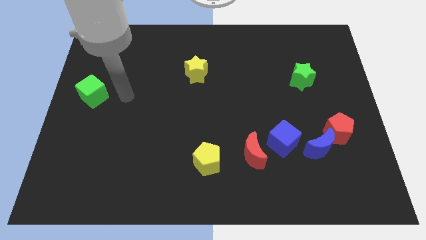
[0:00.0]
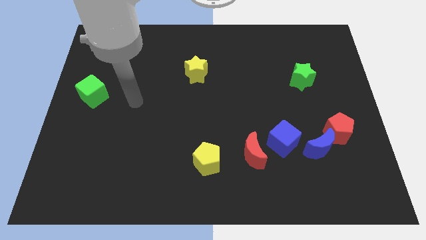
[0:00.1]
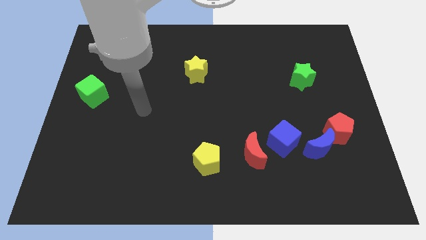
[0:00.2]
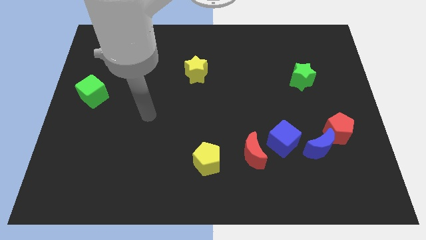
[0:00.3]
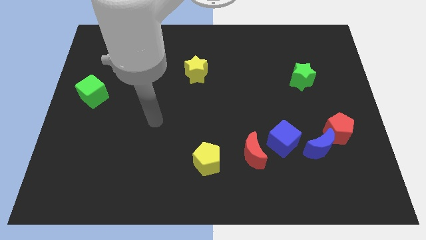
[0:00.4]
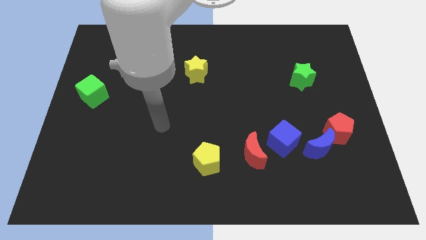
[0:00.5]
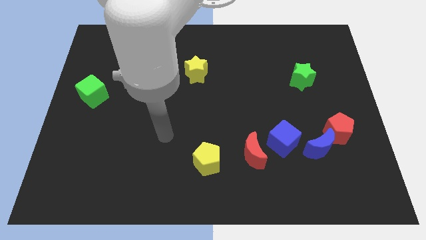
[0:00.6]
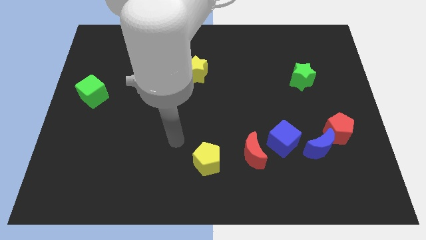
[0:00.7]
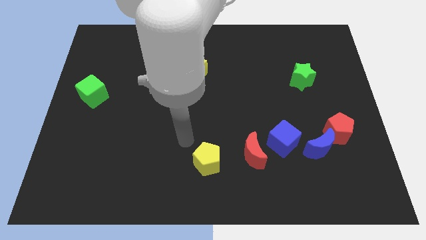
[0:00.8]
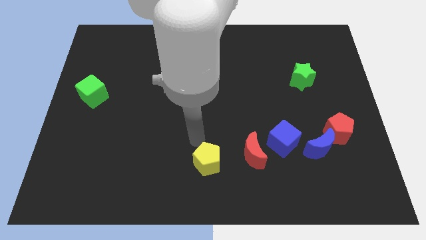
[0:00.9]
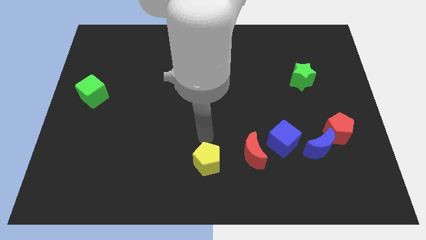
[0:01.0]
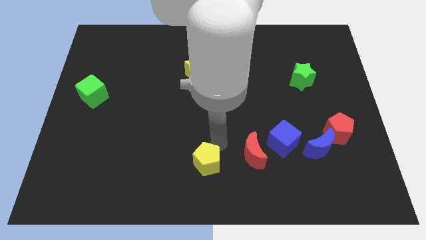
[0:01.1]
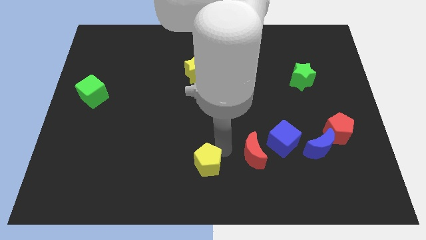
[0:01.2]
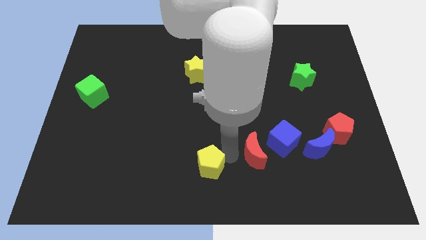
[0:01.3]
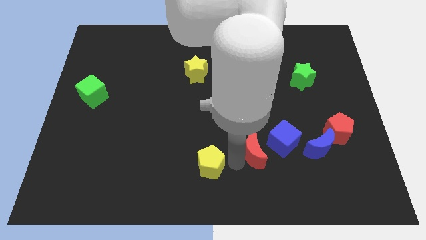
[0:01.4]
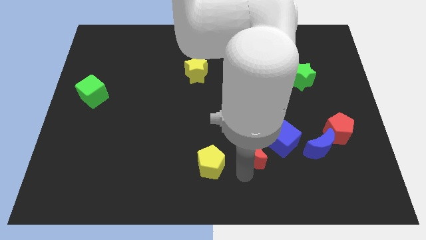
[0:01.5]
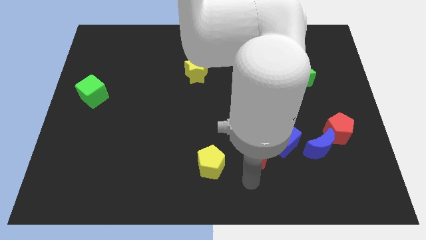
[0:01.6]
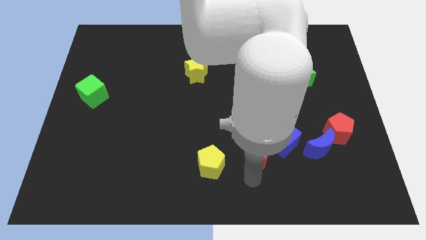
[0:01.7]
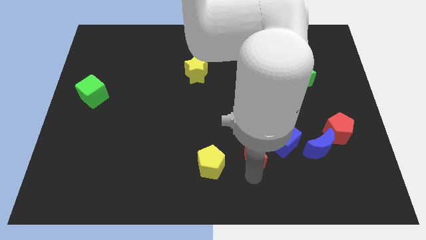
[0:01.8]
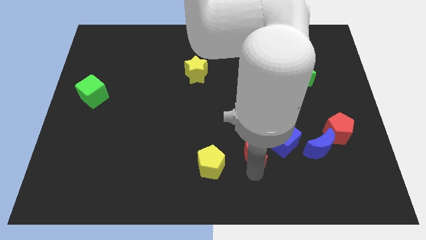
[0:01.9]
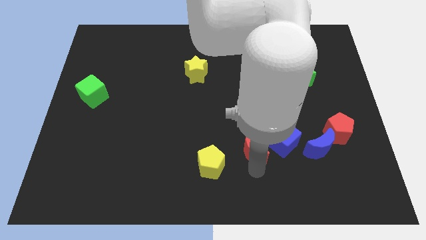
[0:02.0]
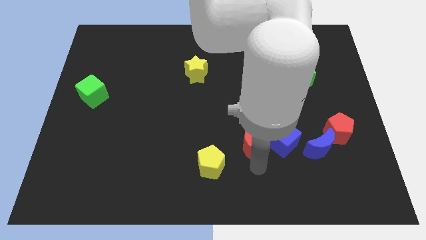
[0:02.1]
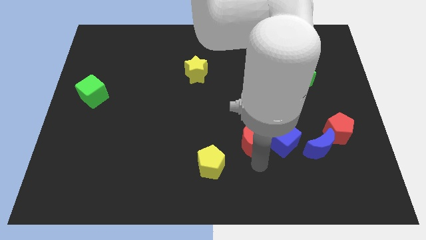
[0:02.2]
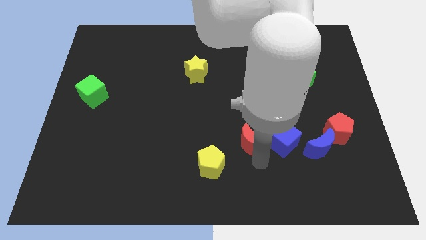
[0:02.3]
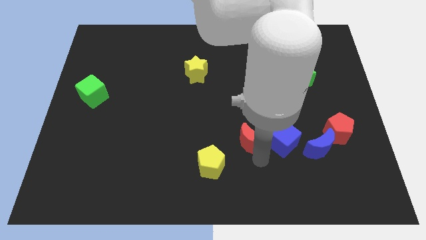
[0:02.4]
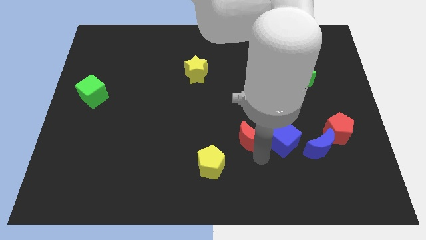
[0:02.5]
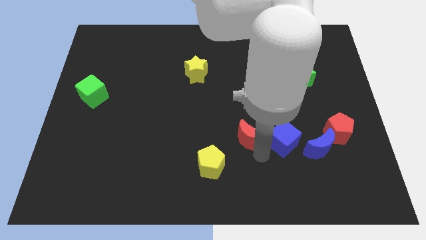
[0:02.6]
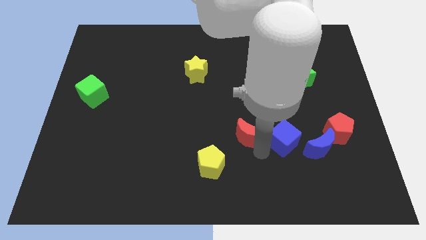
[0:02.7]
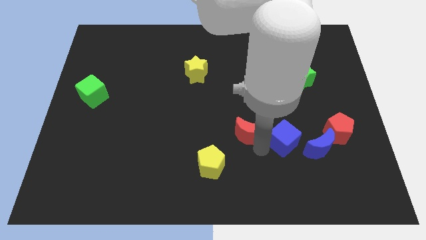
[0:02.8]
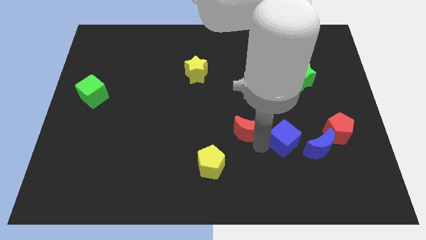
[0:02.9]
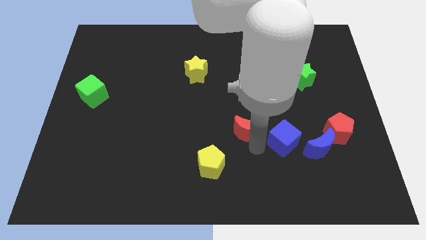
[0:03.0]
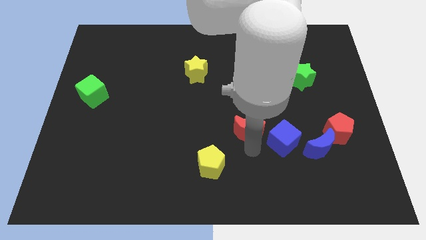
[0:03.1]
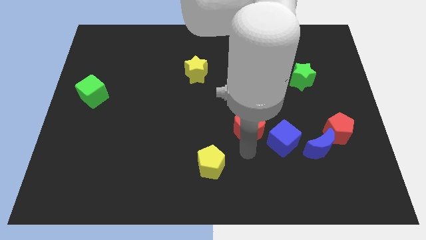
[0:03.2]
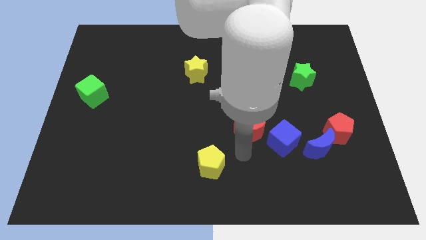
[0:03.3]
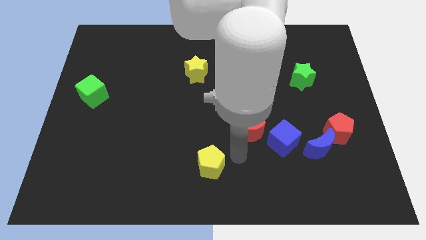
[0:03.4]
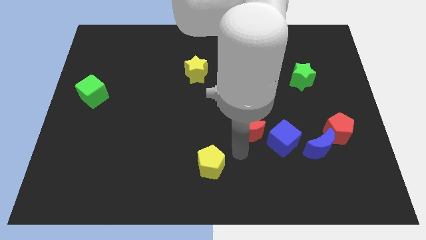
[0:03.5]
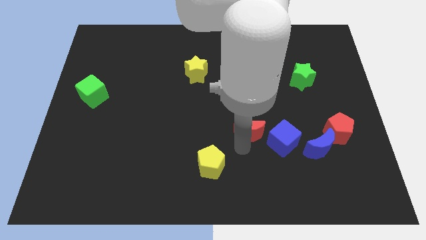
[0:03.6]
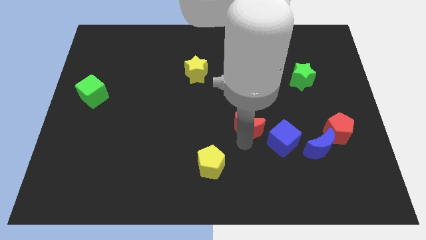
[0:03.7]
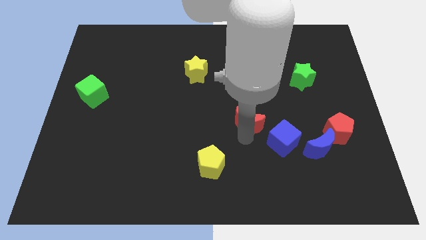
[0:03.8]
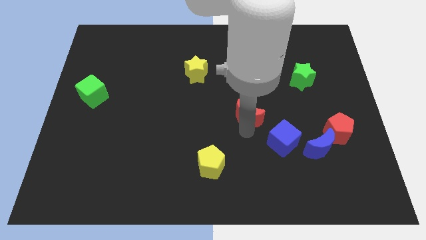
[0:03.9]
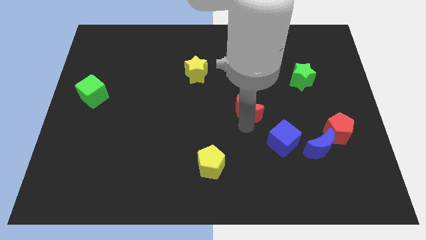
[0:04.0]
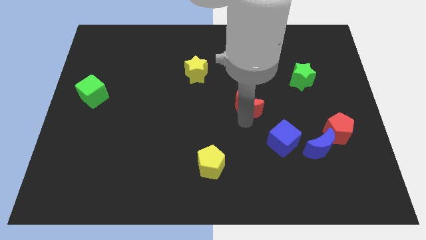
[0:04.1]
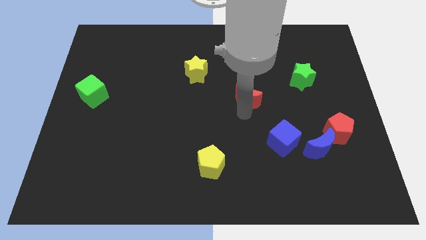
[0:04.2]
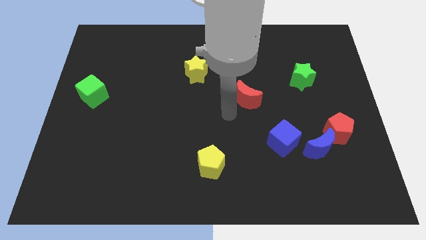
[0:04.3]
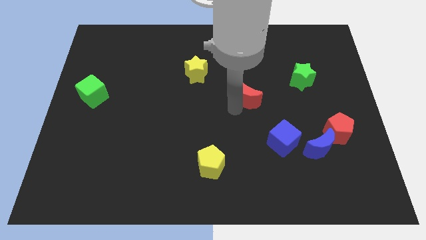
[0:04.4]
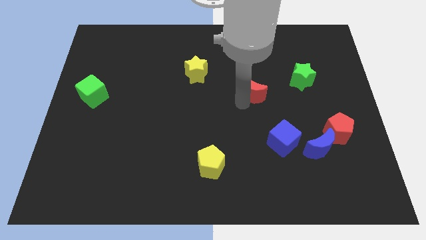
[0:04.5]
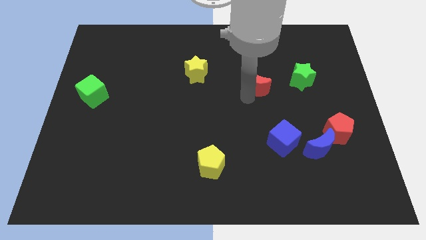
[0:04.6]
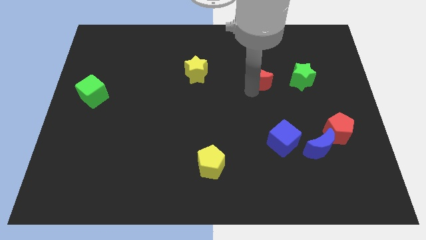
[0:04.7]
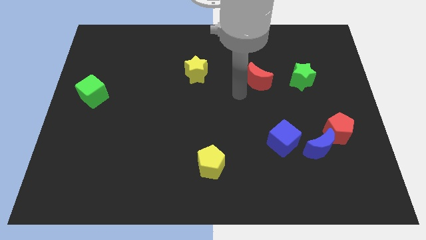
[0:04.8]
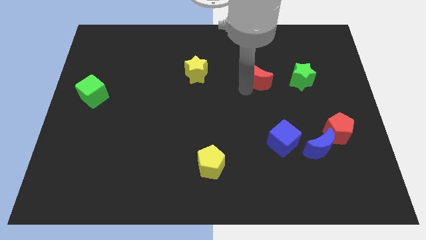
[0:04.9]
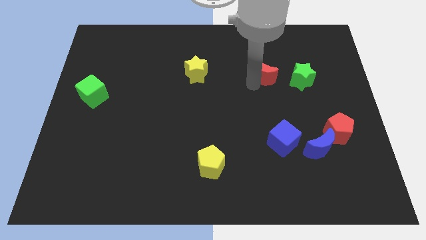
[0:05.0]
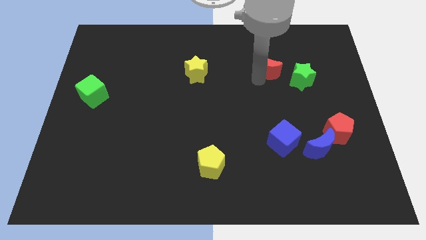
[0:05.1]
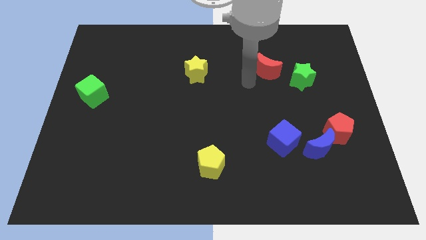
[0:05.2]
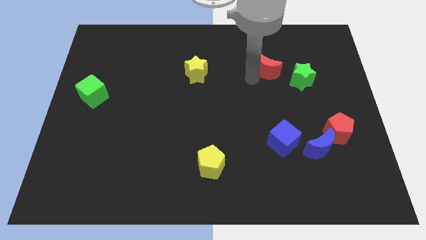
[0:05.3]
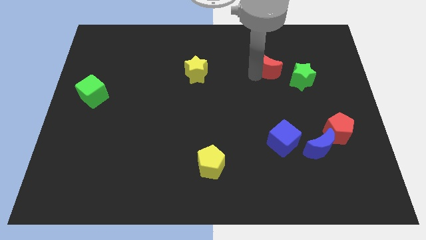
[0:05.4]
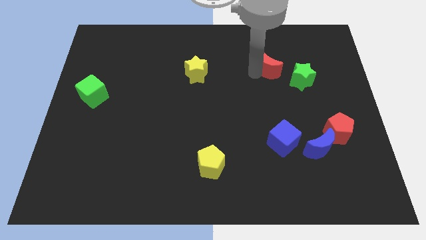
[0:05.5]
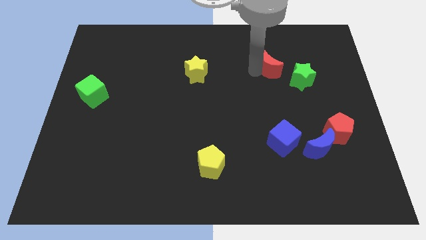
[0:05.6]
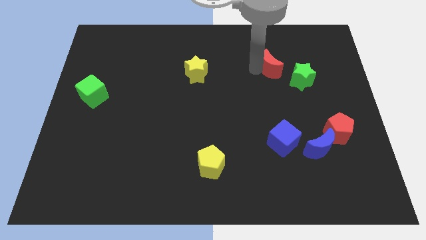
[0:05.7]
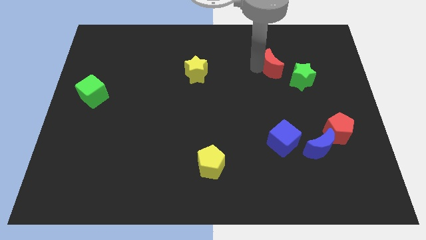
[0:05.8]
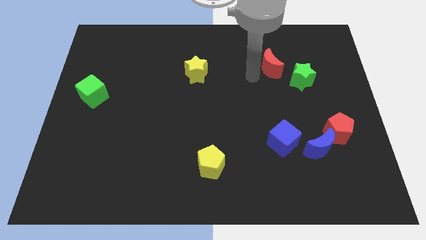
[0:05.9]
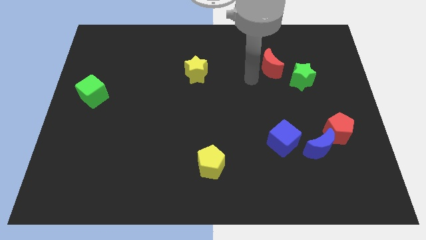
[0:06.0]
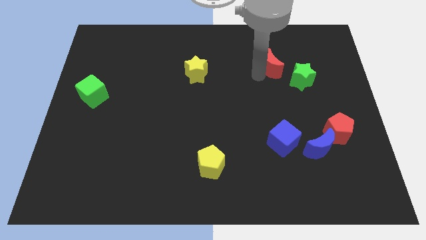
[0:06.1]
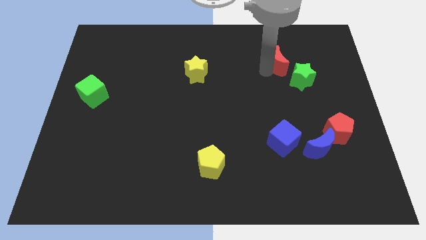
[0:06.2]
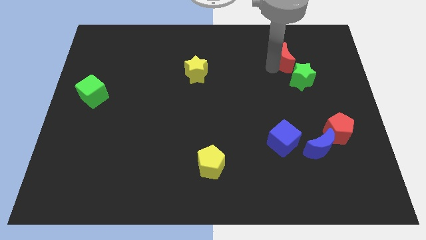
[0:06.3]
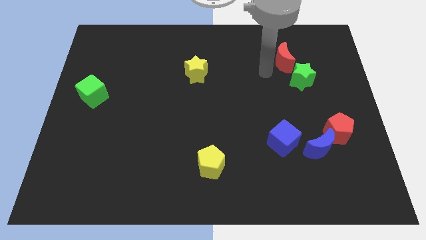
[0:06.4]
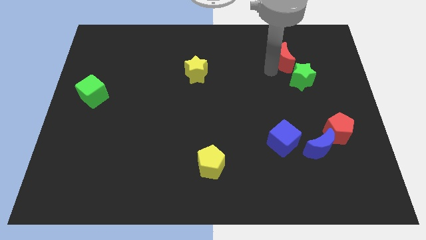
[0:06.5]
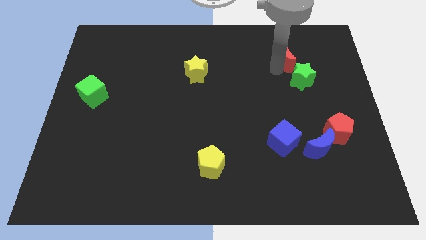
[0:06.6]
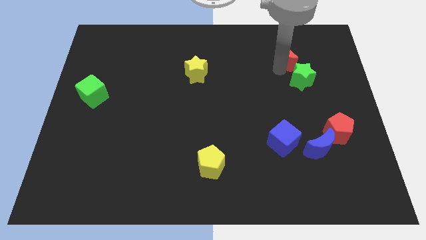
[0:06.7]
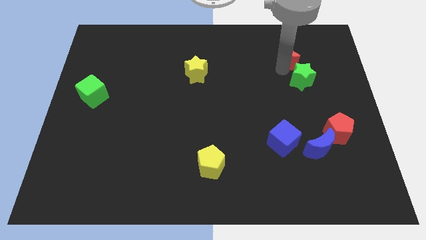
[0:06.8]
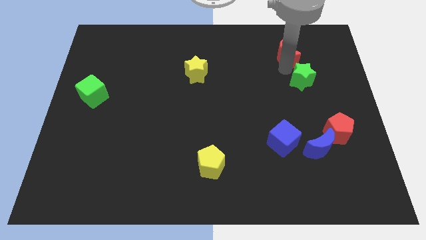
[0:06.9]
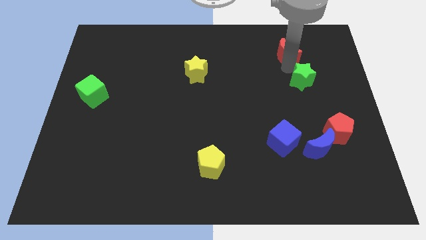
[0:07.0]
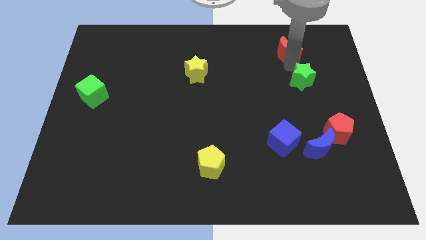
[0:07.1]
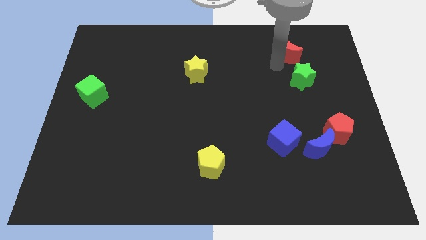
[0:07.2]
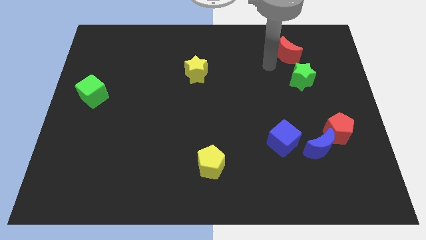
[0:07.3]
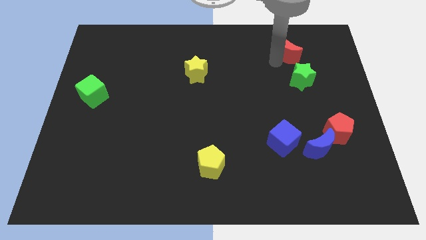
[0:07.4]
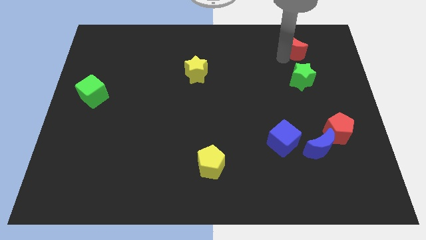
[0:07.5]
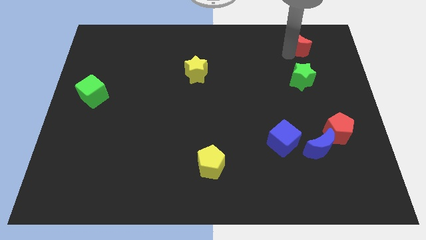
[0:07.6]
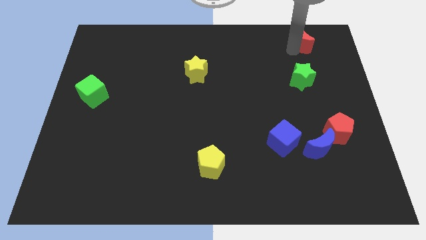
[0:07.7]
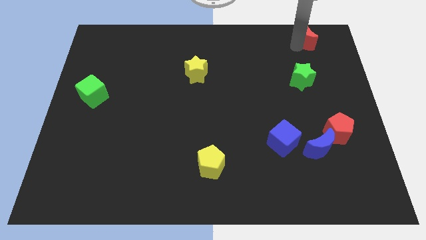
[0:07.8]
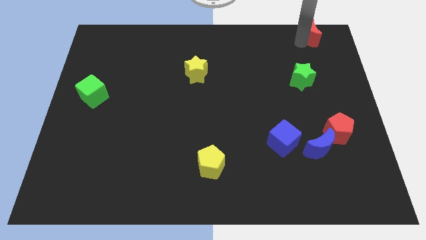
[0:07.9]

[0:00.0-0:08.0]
push the red moon to the top right of the board

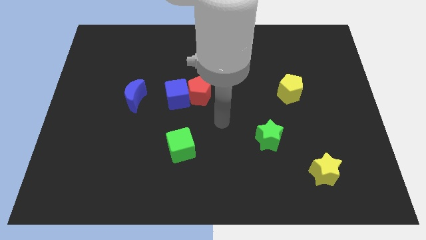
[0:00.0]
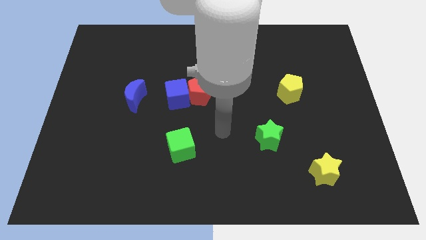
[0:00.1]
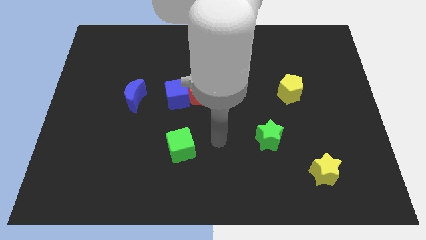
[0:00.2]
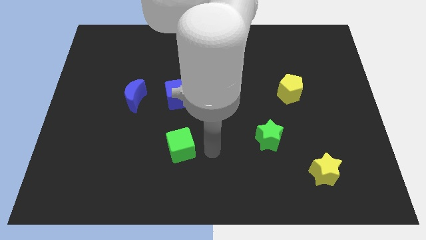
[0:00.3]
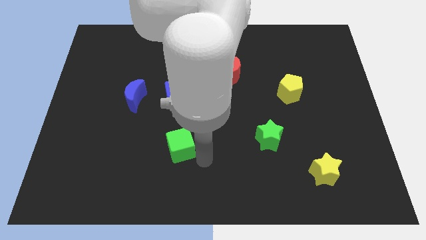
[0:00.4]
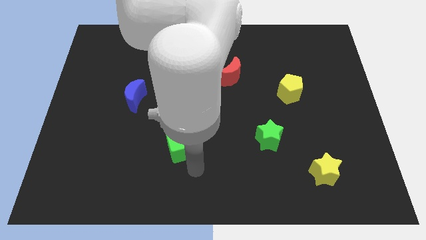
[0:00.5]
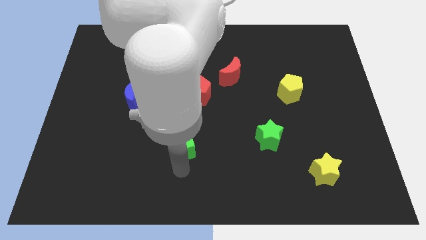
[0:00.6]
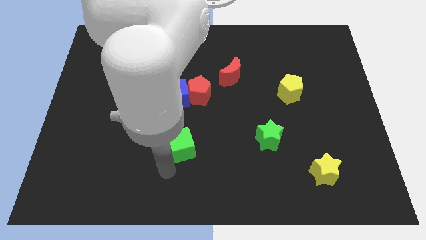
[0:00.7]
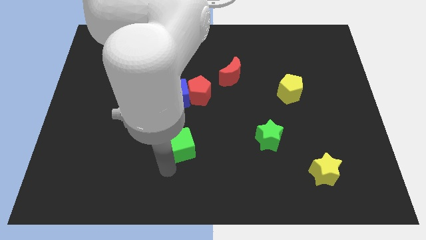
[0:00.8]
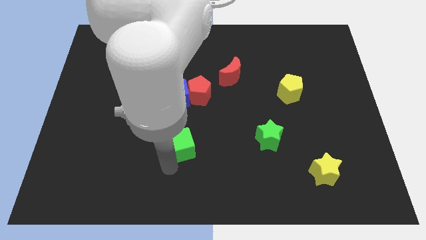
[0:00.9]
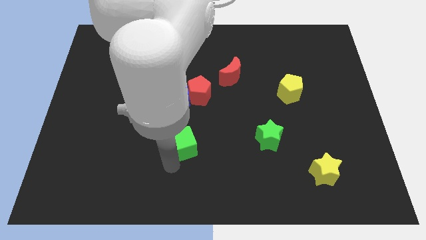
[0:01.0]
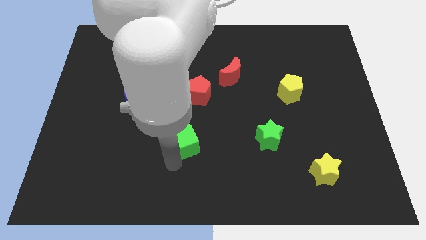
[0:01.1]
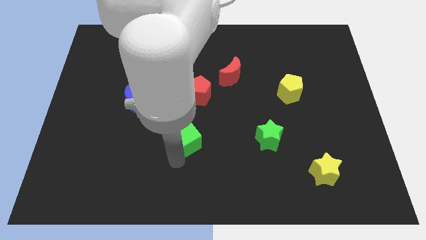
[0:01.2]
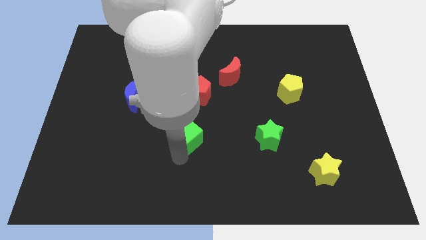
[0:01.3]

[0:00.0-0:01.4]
slide the green cube to the center
